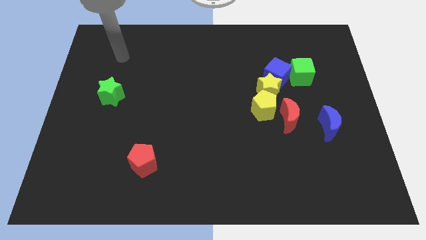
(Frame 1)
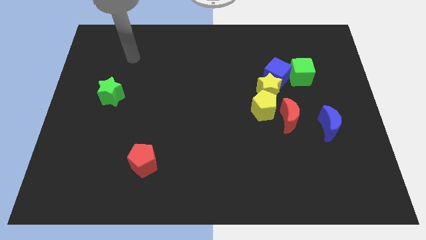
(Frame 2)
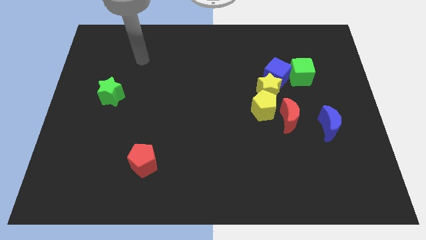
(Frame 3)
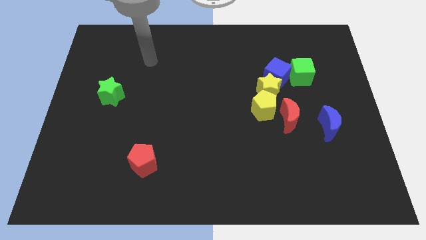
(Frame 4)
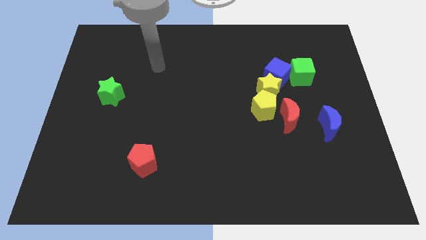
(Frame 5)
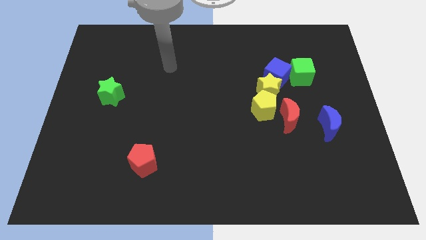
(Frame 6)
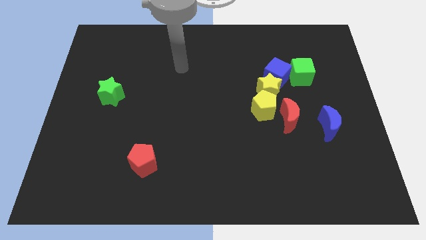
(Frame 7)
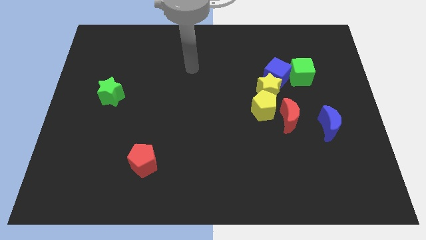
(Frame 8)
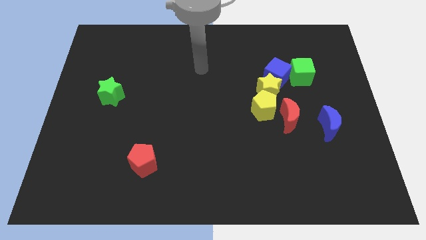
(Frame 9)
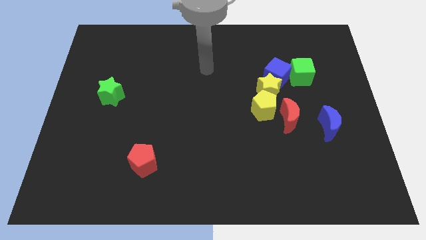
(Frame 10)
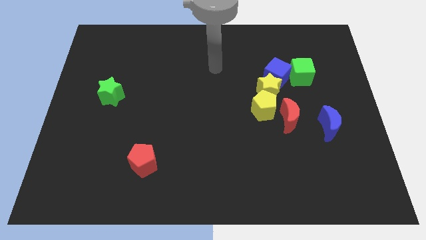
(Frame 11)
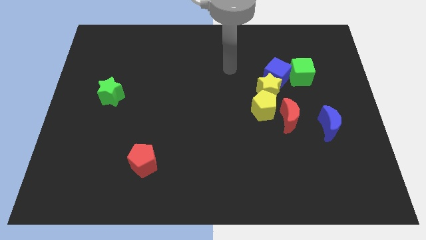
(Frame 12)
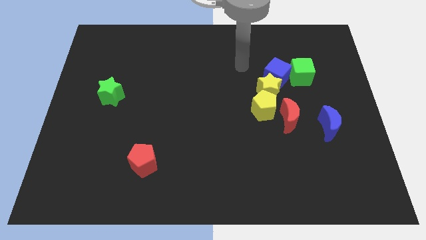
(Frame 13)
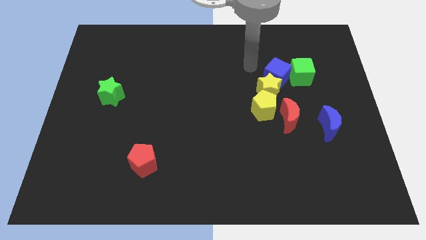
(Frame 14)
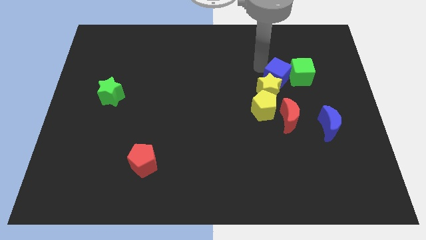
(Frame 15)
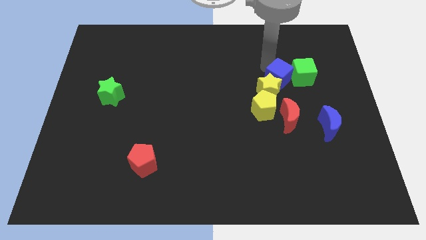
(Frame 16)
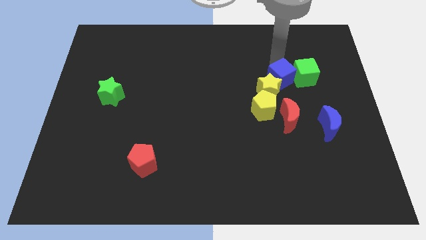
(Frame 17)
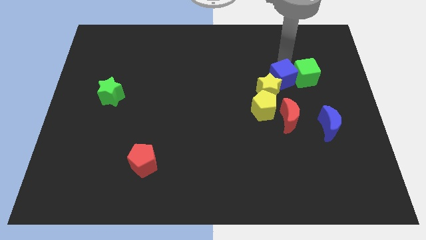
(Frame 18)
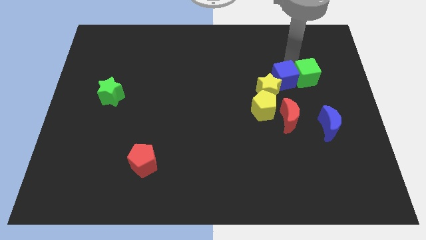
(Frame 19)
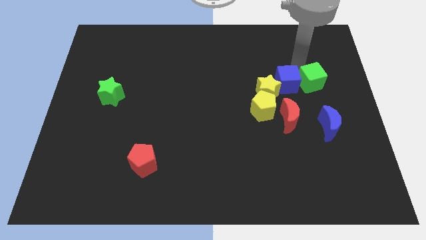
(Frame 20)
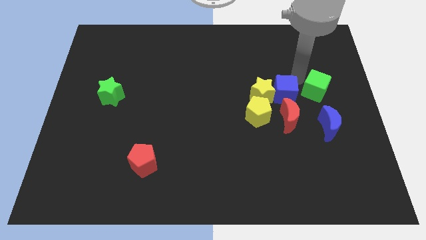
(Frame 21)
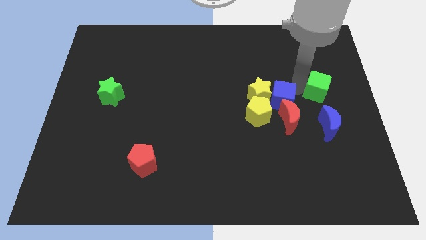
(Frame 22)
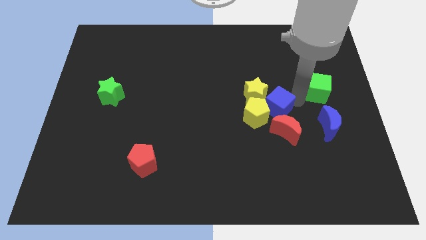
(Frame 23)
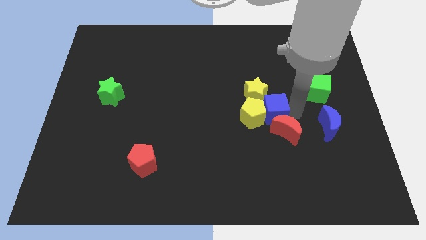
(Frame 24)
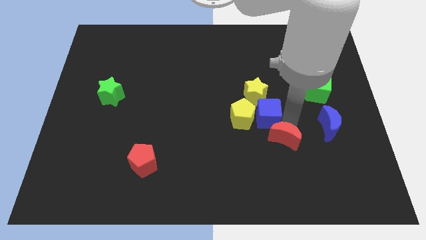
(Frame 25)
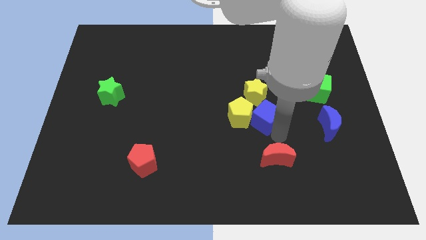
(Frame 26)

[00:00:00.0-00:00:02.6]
move the blue cube away from the yellow star and green cube

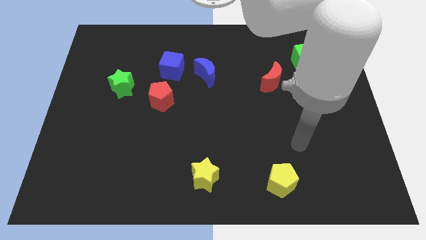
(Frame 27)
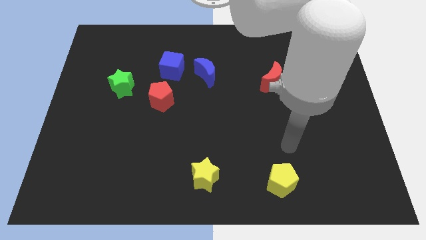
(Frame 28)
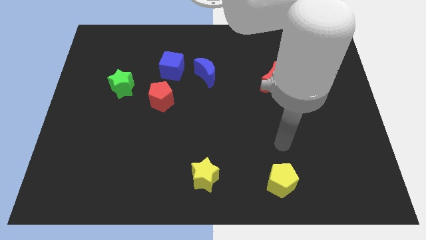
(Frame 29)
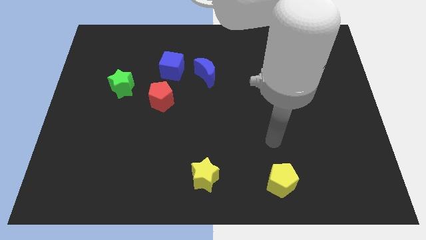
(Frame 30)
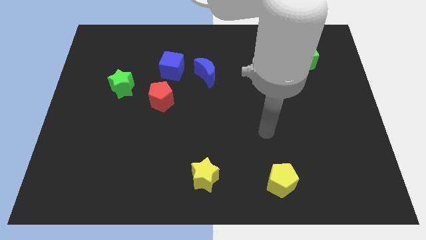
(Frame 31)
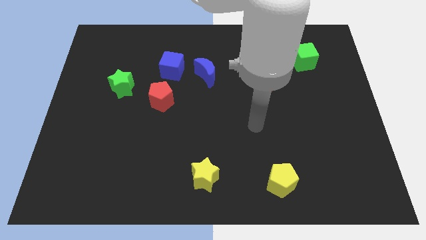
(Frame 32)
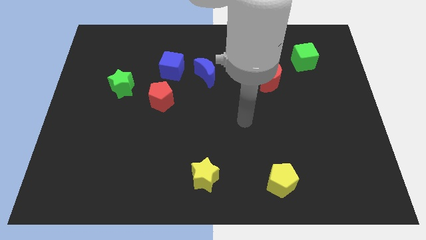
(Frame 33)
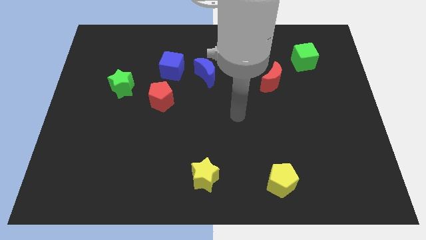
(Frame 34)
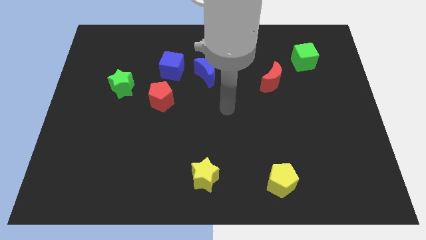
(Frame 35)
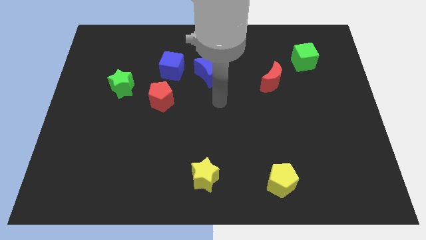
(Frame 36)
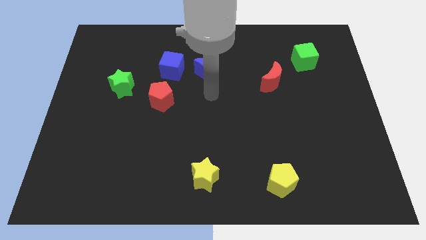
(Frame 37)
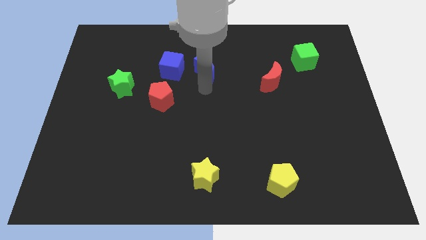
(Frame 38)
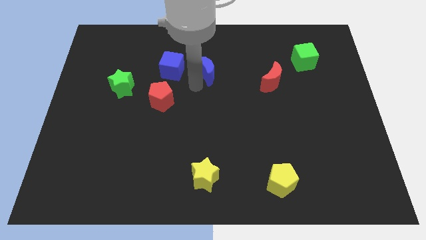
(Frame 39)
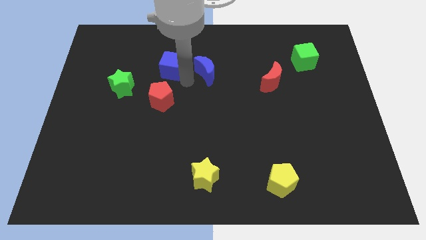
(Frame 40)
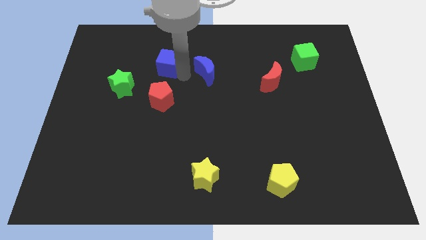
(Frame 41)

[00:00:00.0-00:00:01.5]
separate the blue moon from the blue cube

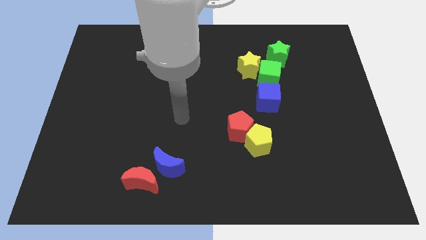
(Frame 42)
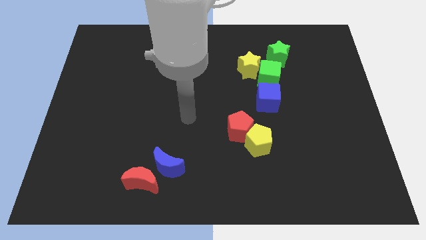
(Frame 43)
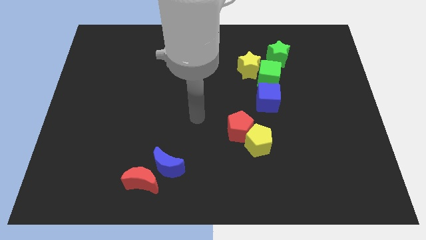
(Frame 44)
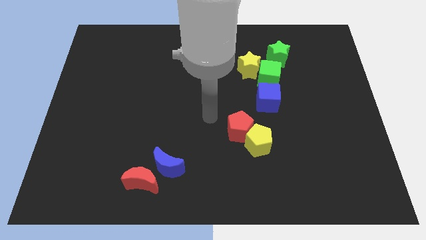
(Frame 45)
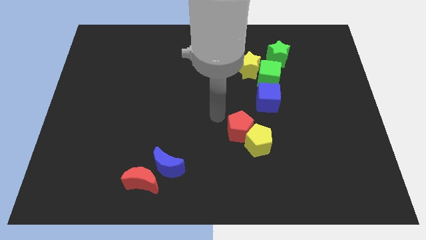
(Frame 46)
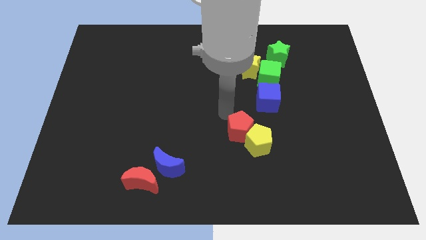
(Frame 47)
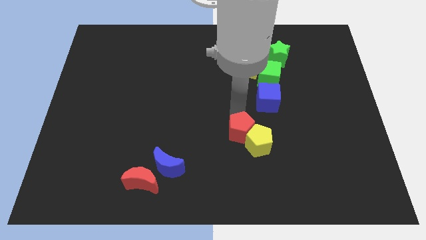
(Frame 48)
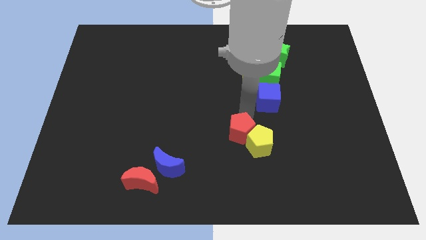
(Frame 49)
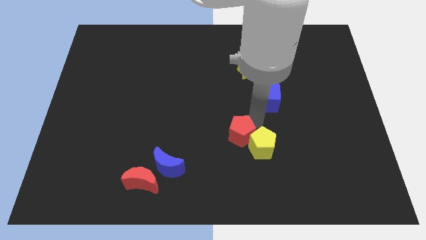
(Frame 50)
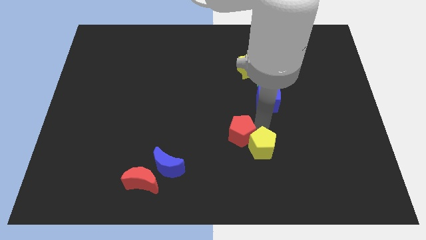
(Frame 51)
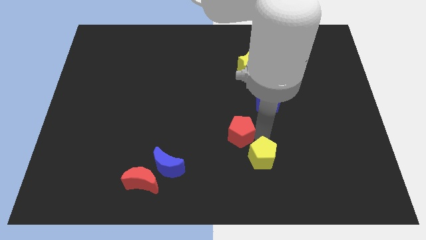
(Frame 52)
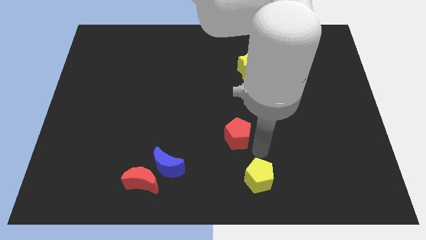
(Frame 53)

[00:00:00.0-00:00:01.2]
move the red pentagon away from the yellow pentagon

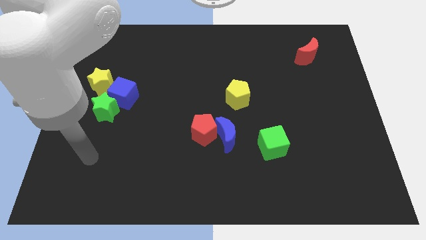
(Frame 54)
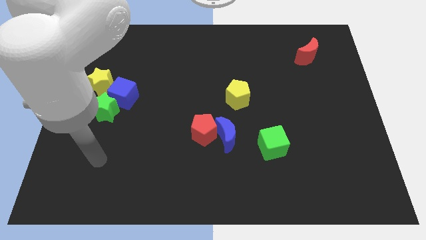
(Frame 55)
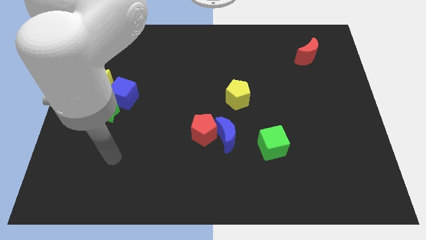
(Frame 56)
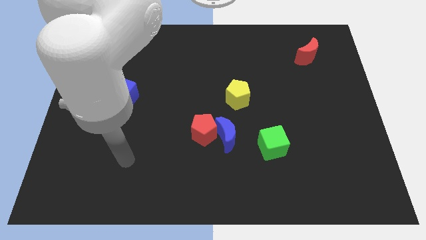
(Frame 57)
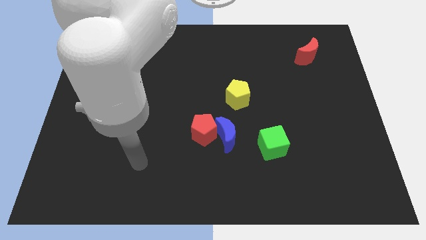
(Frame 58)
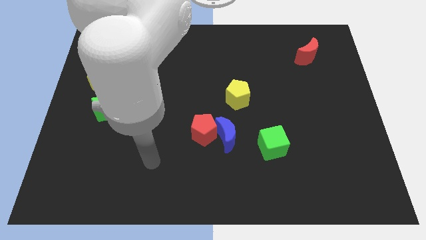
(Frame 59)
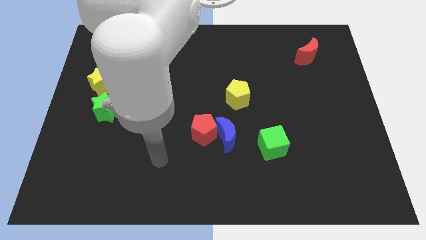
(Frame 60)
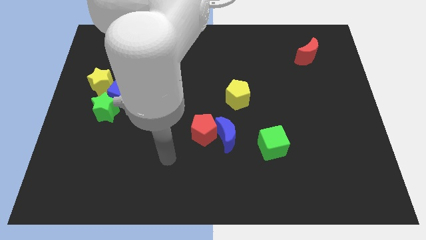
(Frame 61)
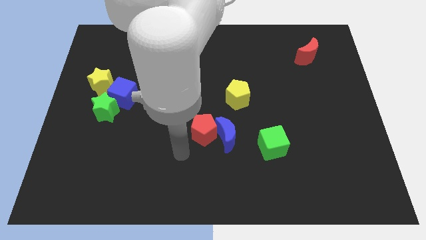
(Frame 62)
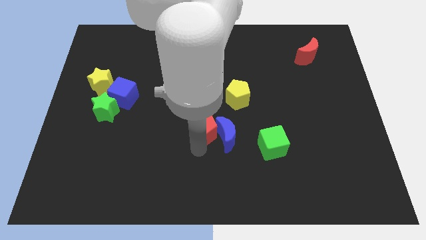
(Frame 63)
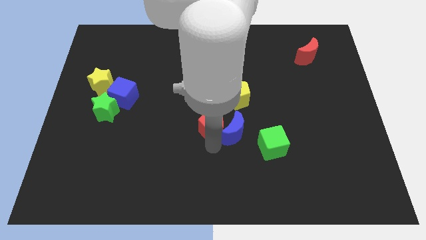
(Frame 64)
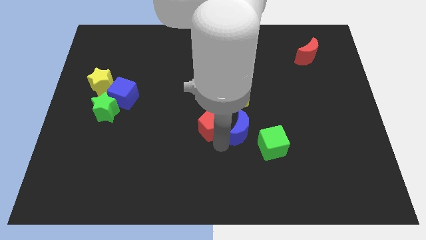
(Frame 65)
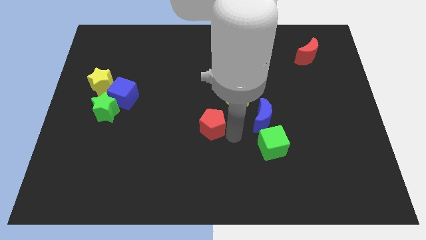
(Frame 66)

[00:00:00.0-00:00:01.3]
move the red pentagon away from the blue moon

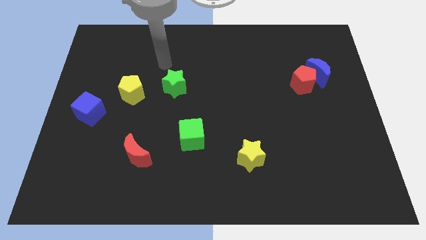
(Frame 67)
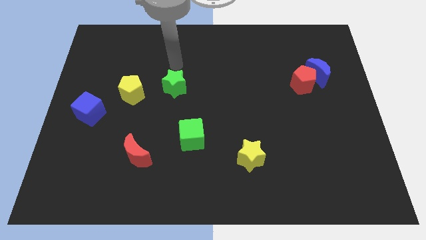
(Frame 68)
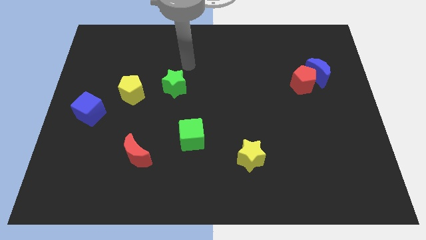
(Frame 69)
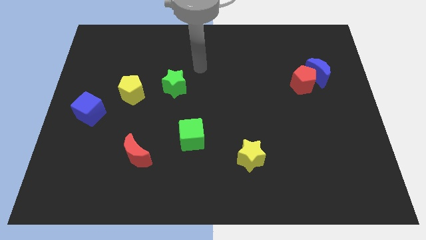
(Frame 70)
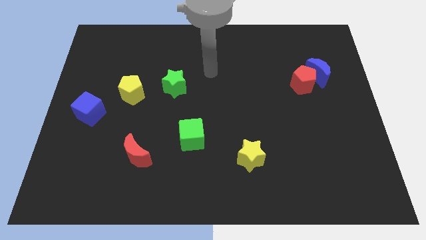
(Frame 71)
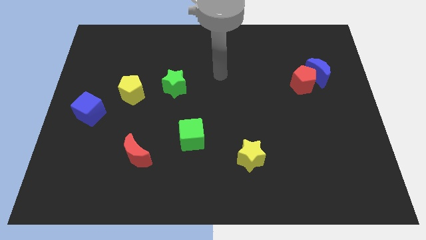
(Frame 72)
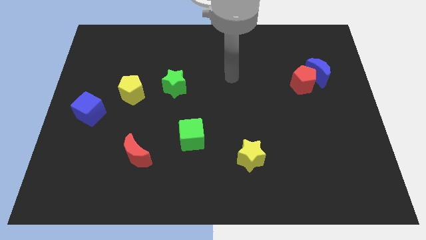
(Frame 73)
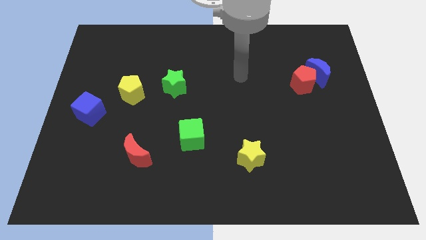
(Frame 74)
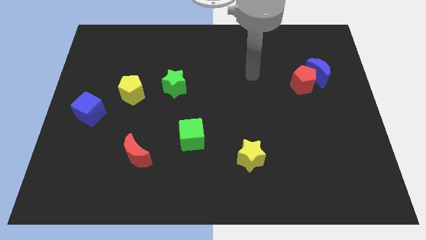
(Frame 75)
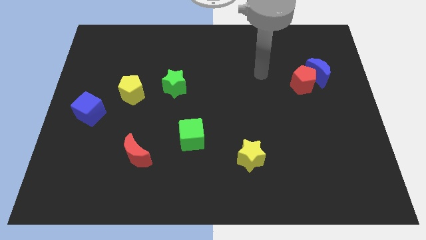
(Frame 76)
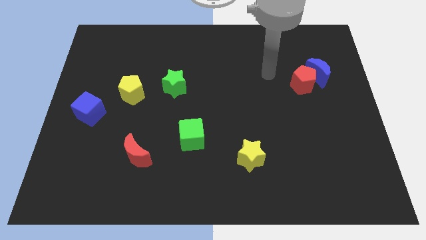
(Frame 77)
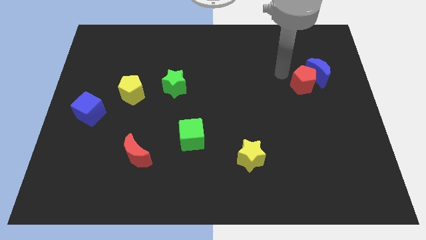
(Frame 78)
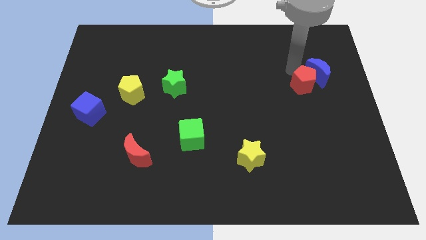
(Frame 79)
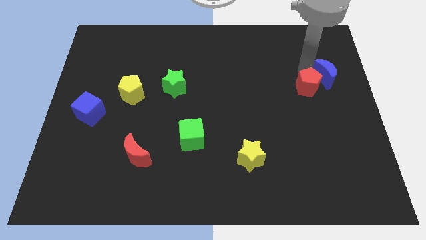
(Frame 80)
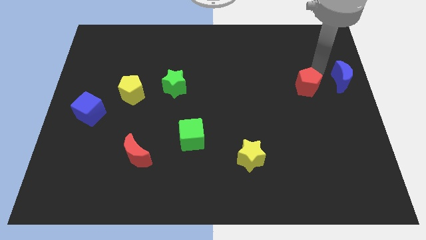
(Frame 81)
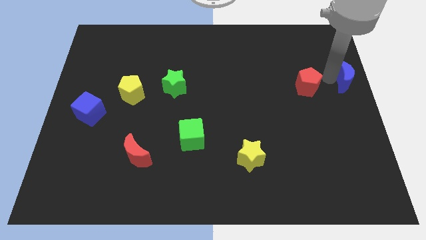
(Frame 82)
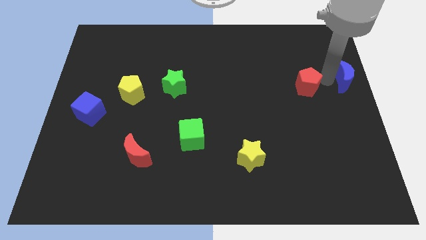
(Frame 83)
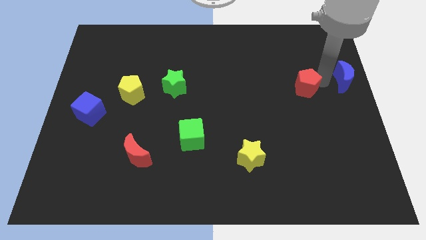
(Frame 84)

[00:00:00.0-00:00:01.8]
pull the red pentagon apart from the blue moon

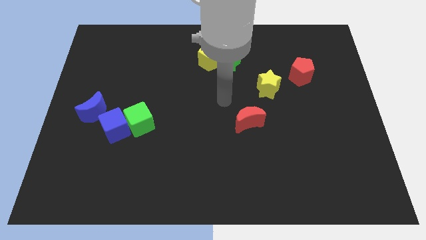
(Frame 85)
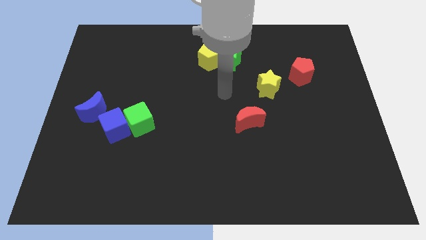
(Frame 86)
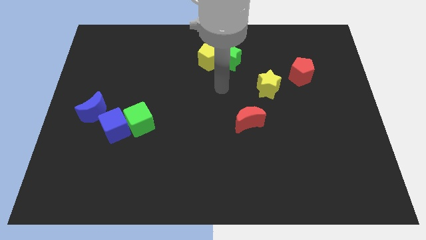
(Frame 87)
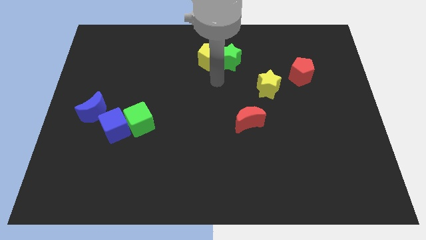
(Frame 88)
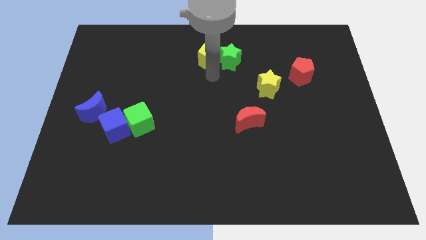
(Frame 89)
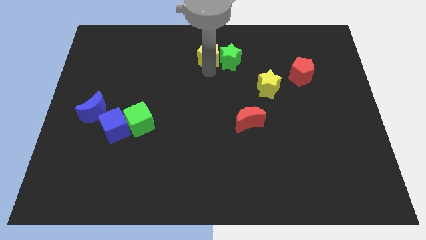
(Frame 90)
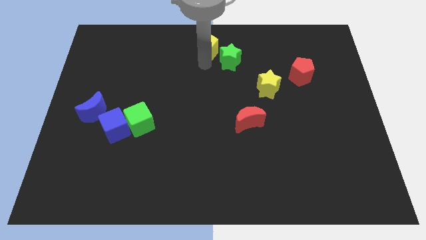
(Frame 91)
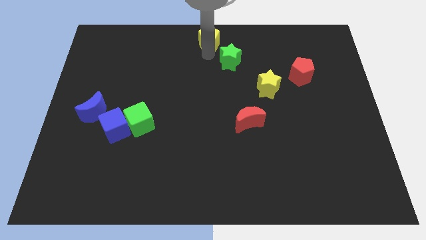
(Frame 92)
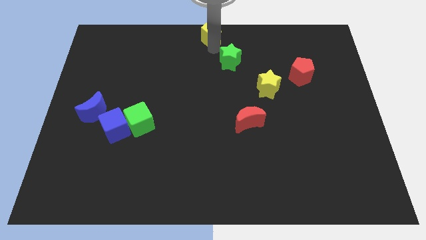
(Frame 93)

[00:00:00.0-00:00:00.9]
separate the green star from the yellow pentagon
